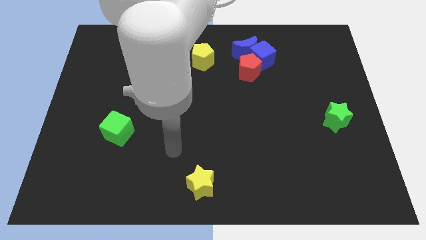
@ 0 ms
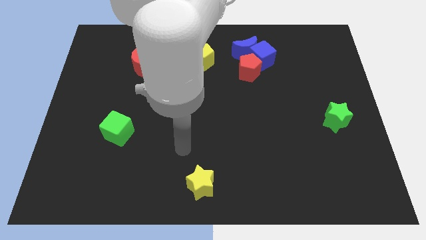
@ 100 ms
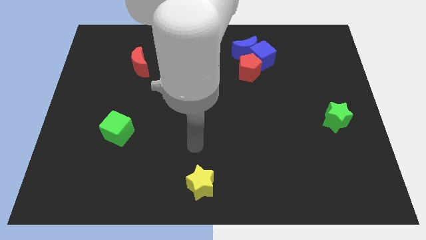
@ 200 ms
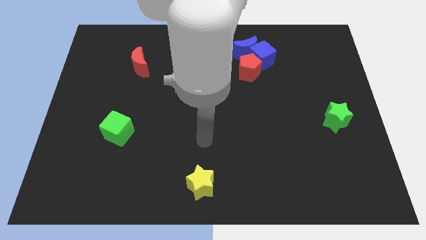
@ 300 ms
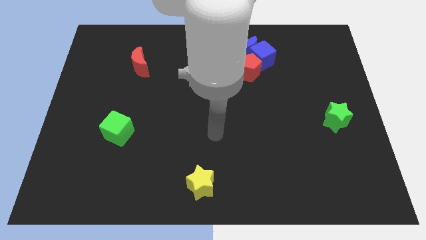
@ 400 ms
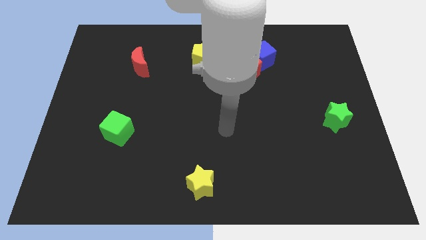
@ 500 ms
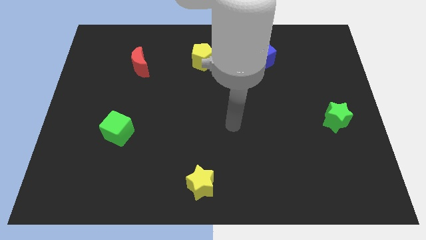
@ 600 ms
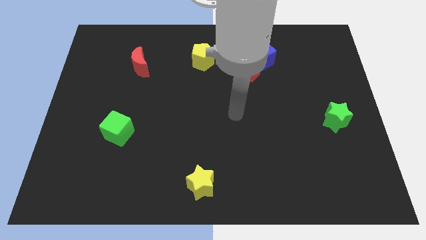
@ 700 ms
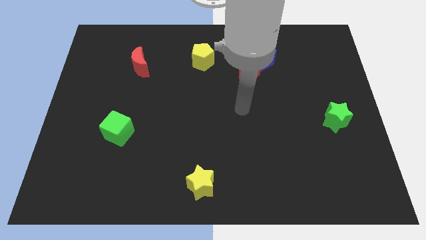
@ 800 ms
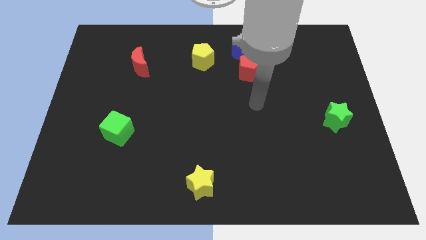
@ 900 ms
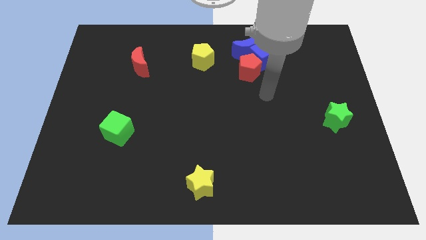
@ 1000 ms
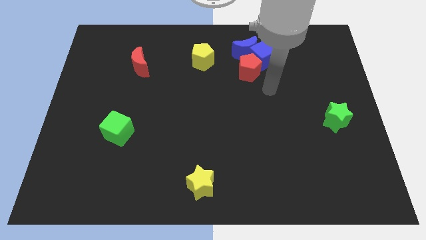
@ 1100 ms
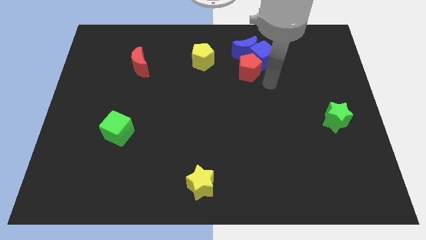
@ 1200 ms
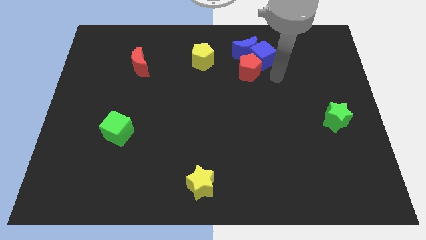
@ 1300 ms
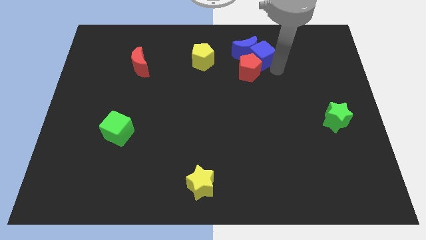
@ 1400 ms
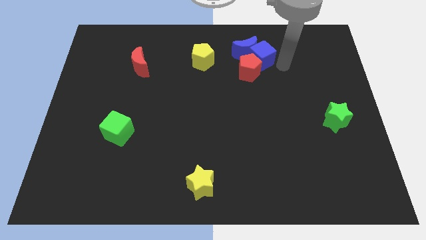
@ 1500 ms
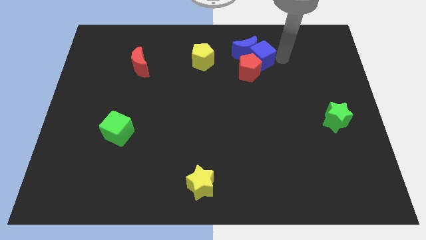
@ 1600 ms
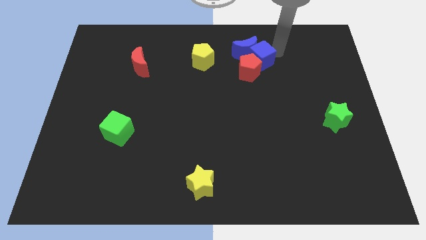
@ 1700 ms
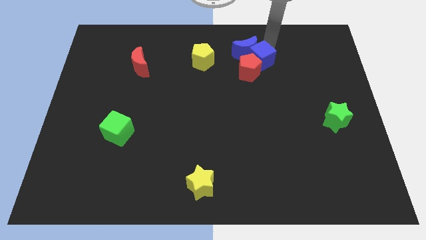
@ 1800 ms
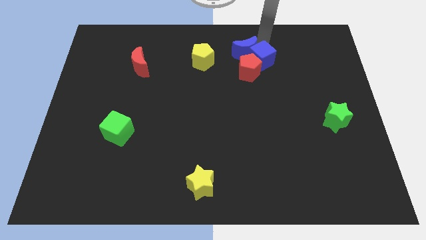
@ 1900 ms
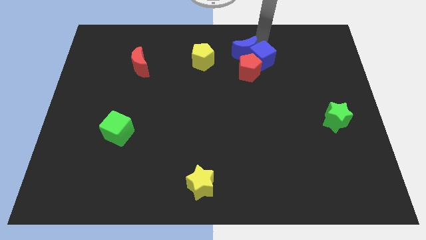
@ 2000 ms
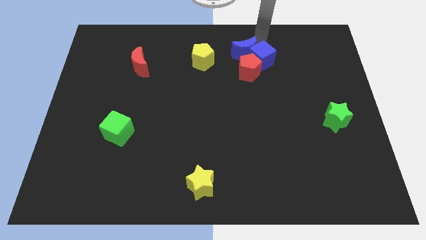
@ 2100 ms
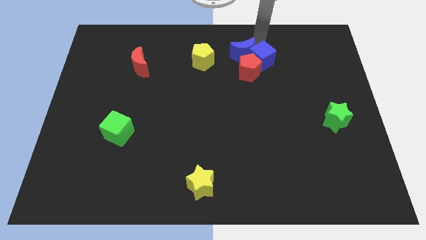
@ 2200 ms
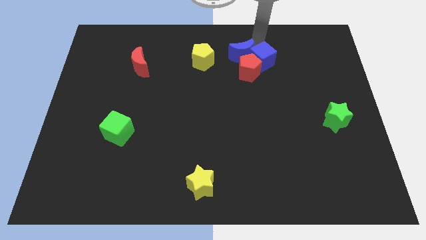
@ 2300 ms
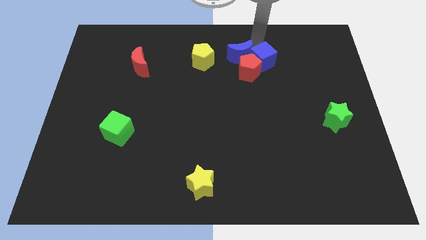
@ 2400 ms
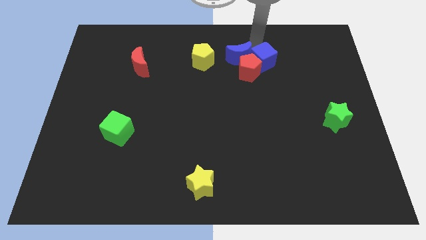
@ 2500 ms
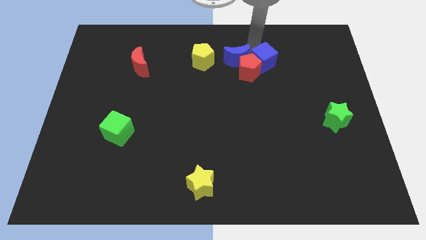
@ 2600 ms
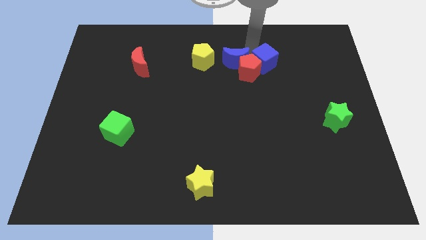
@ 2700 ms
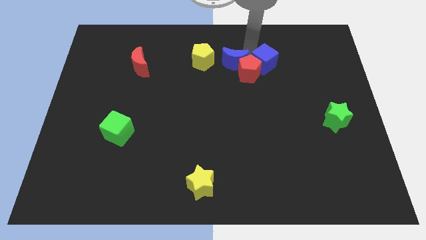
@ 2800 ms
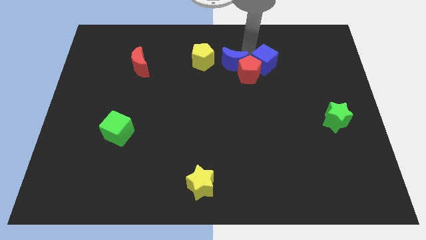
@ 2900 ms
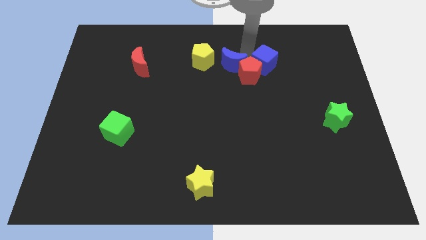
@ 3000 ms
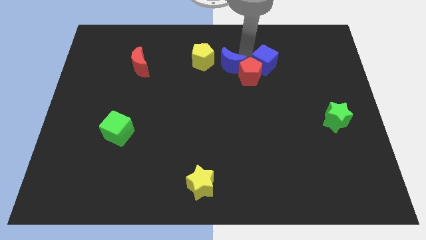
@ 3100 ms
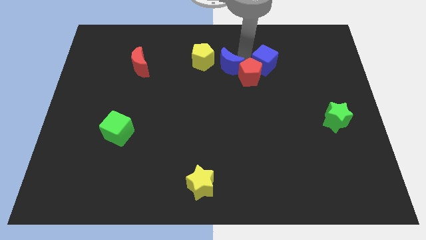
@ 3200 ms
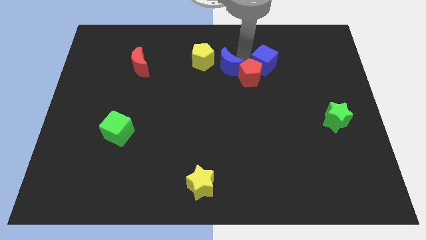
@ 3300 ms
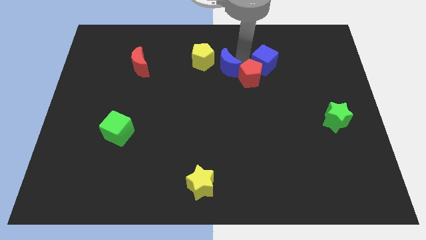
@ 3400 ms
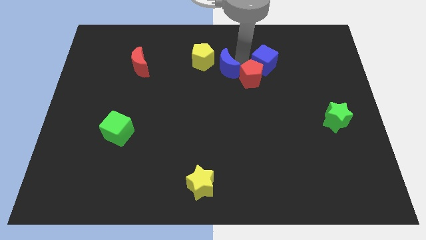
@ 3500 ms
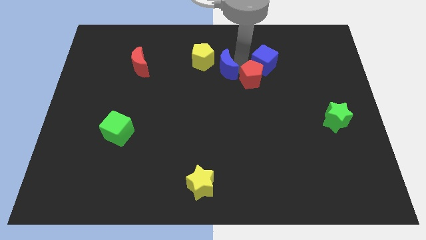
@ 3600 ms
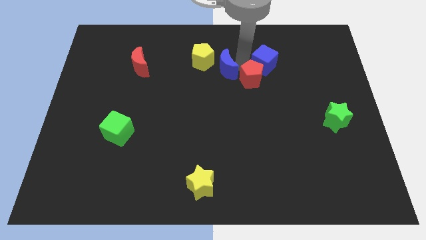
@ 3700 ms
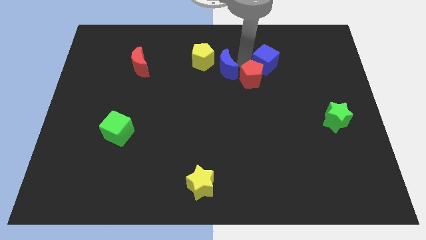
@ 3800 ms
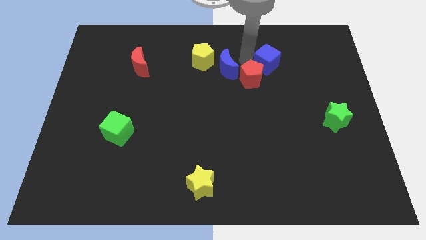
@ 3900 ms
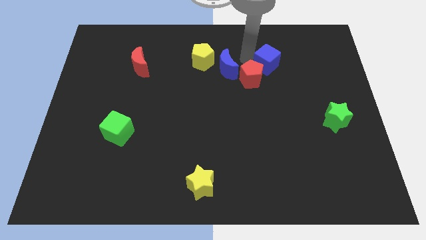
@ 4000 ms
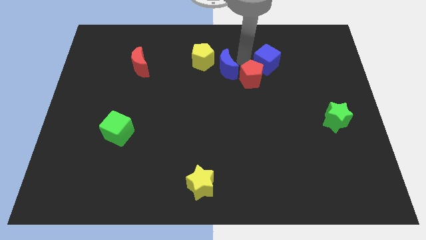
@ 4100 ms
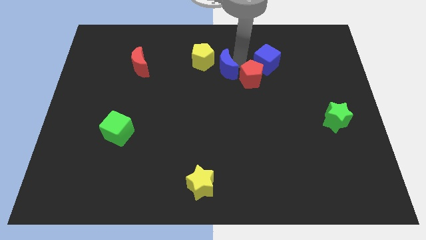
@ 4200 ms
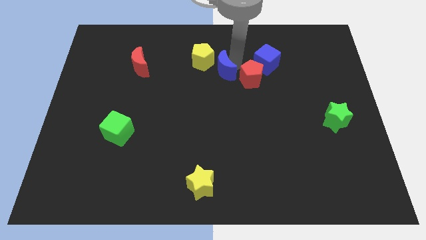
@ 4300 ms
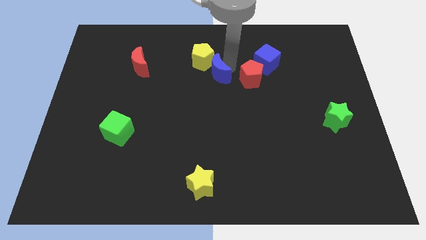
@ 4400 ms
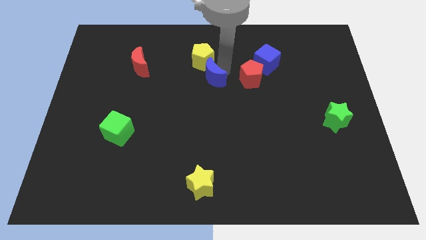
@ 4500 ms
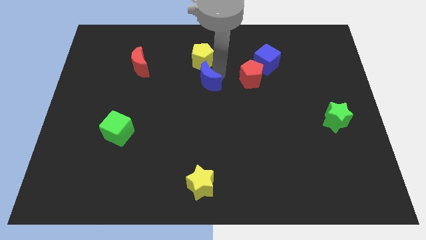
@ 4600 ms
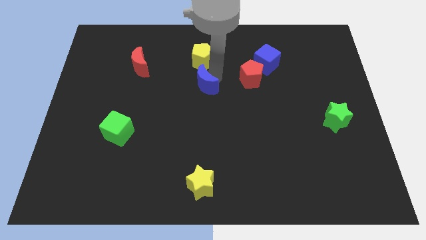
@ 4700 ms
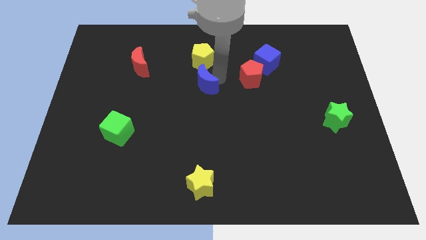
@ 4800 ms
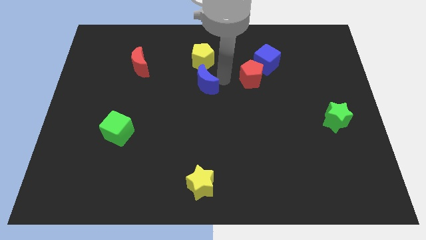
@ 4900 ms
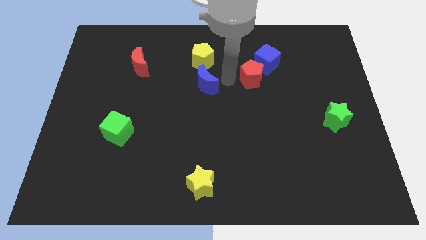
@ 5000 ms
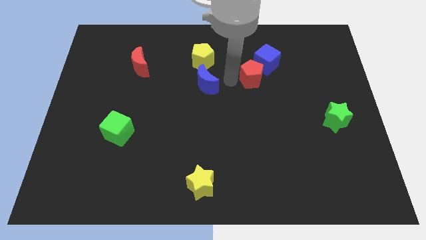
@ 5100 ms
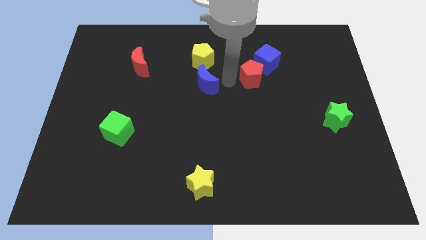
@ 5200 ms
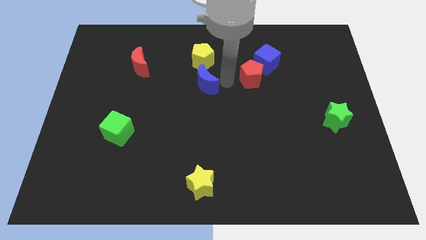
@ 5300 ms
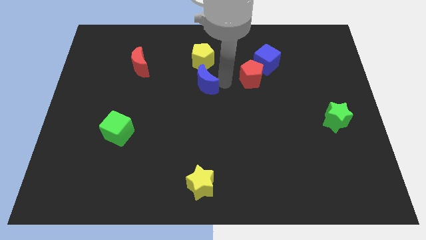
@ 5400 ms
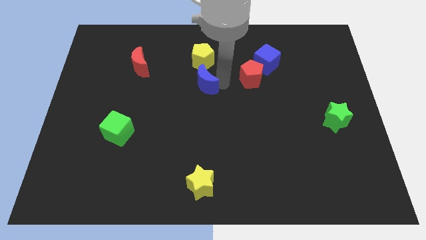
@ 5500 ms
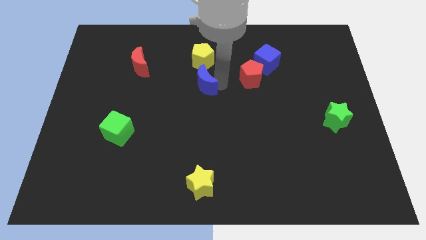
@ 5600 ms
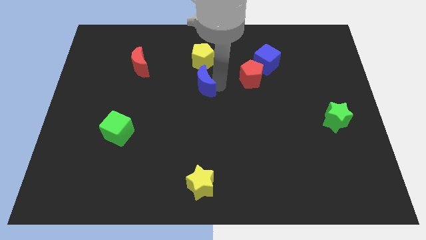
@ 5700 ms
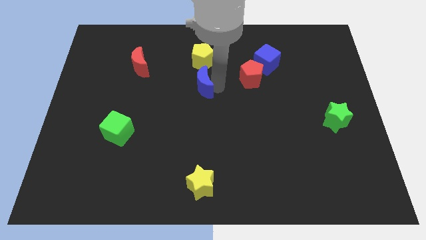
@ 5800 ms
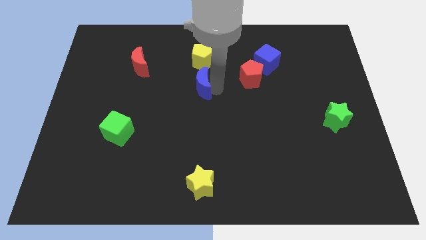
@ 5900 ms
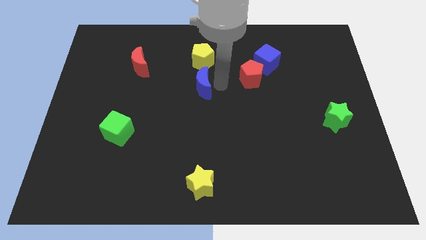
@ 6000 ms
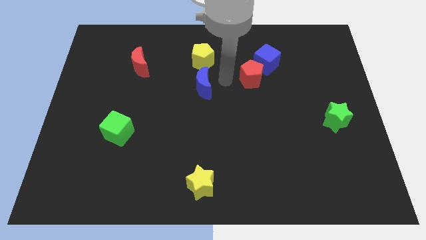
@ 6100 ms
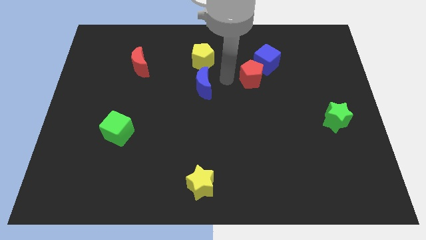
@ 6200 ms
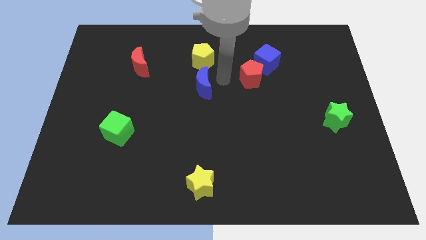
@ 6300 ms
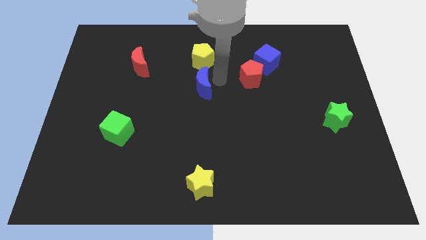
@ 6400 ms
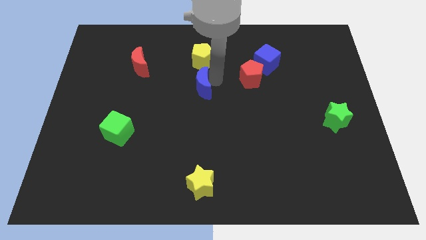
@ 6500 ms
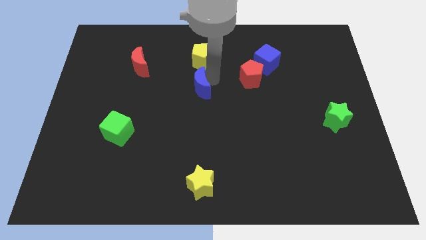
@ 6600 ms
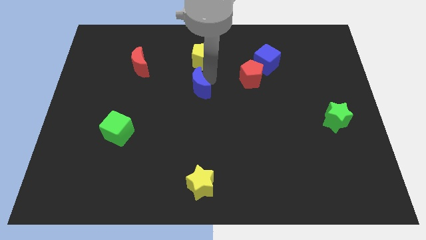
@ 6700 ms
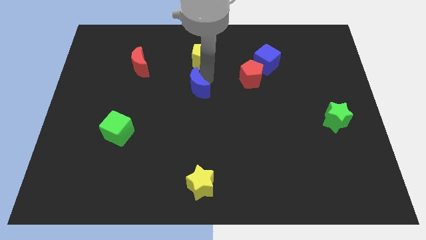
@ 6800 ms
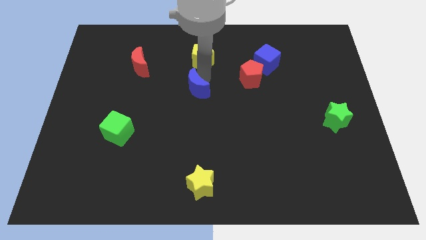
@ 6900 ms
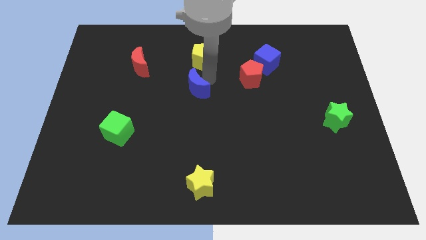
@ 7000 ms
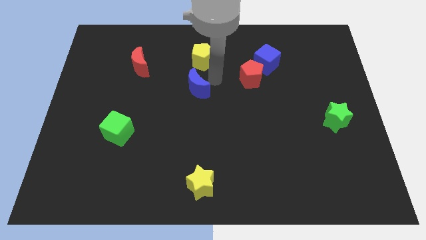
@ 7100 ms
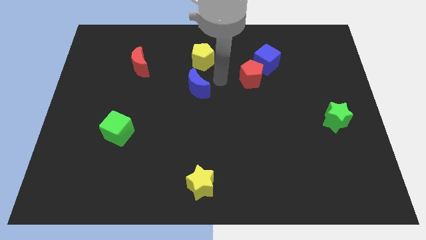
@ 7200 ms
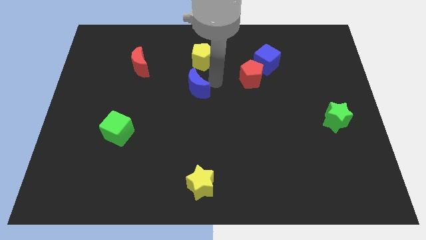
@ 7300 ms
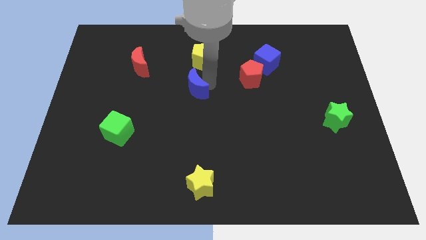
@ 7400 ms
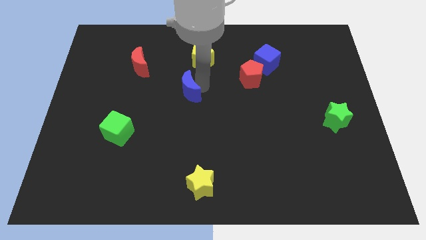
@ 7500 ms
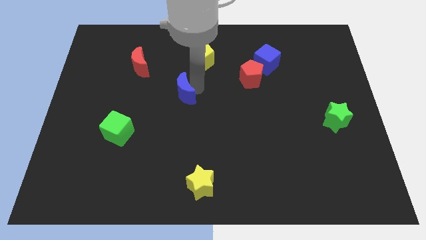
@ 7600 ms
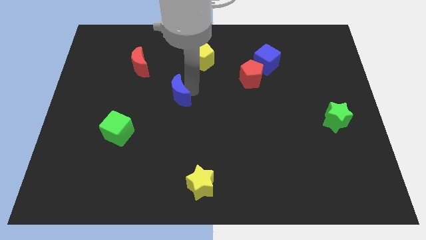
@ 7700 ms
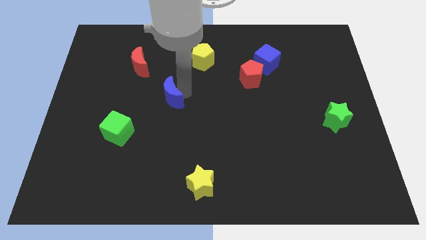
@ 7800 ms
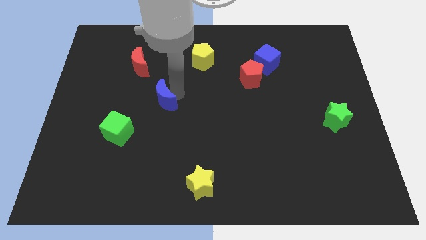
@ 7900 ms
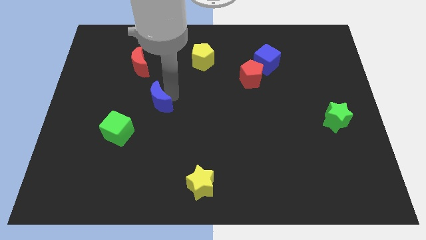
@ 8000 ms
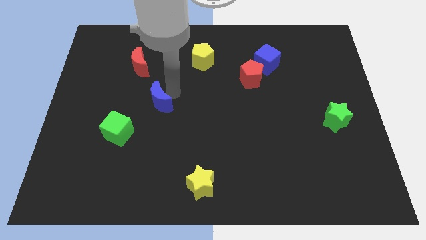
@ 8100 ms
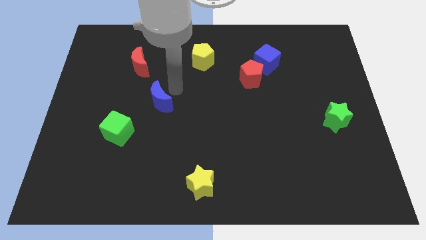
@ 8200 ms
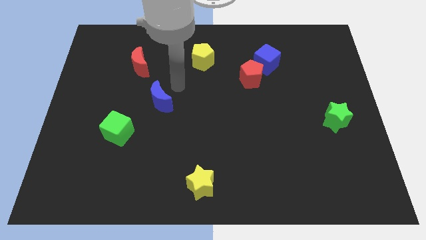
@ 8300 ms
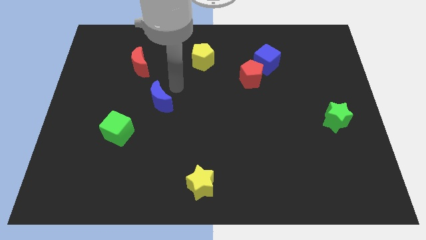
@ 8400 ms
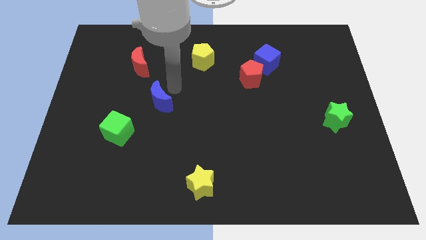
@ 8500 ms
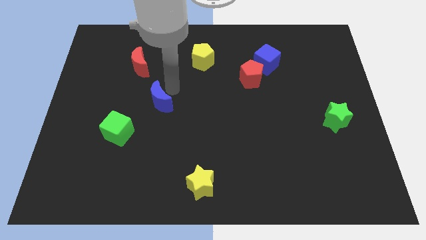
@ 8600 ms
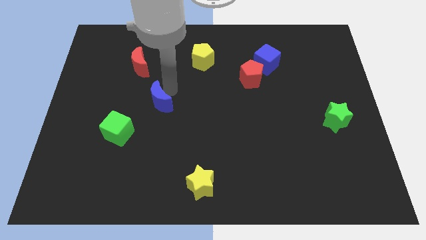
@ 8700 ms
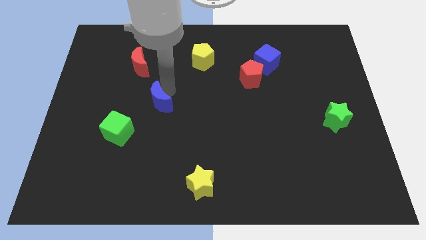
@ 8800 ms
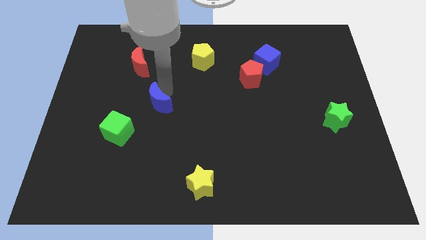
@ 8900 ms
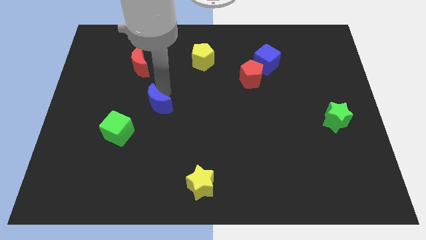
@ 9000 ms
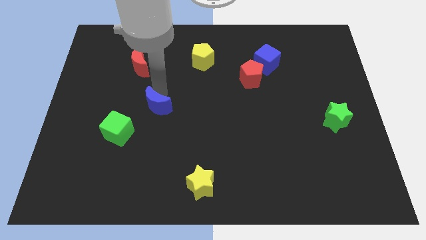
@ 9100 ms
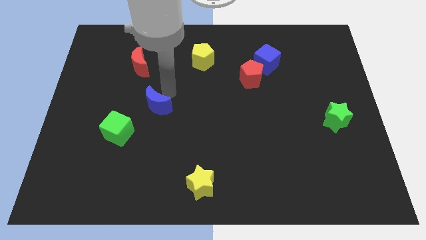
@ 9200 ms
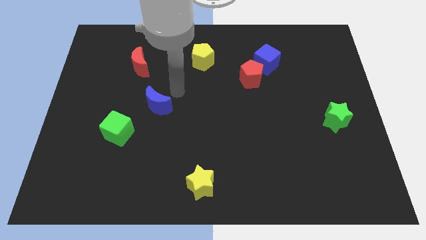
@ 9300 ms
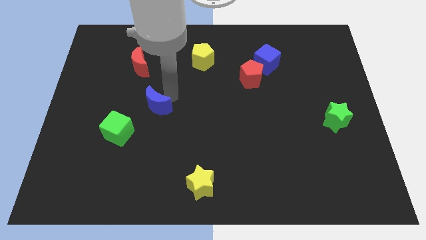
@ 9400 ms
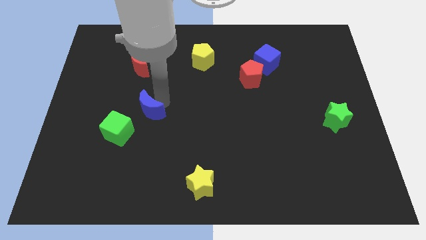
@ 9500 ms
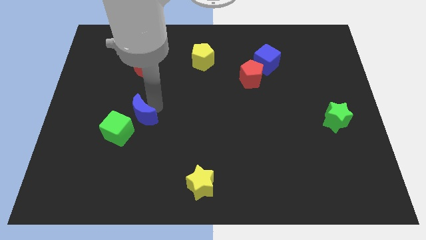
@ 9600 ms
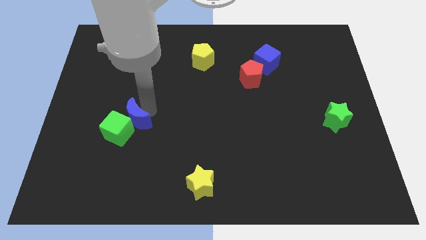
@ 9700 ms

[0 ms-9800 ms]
slide the blue moon close to the green cube
